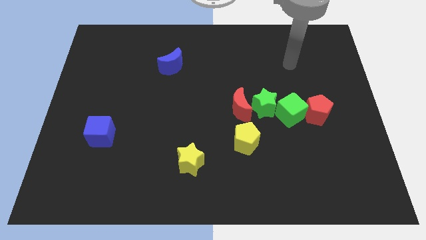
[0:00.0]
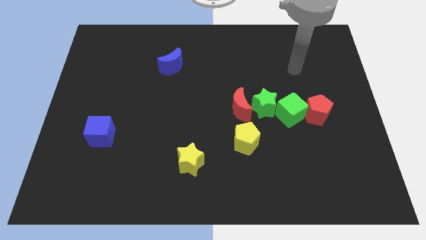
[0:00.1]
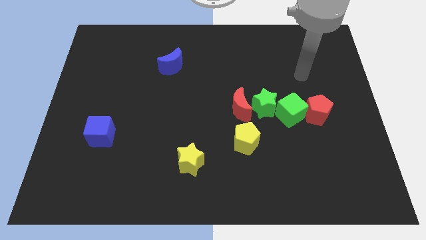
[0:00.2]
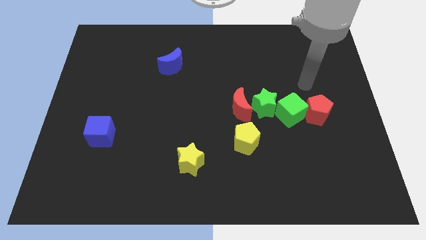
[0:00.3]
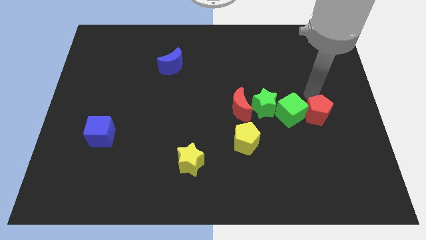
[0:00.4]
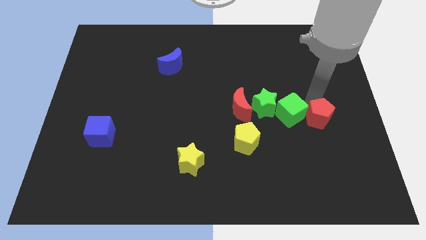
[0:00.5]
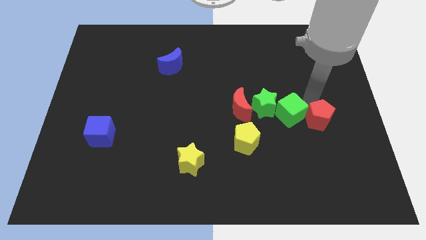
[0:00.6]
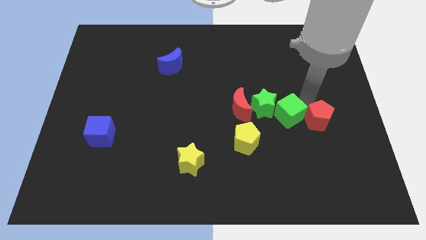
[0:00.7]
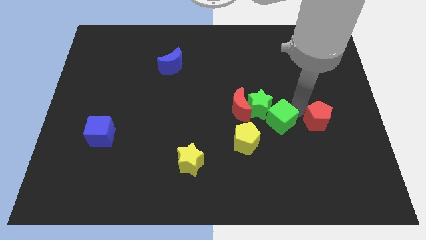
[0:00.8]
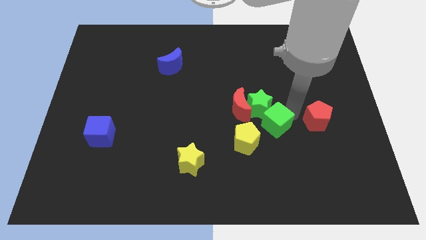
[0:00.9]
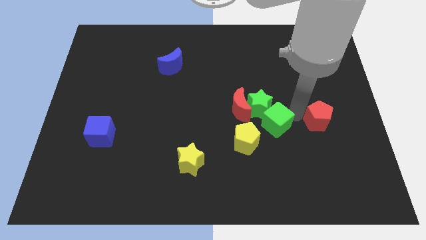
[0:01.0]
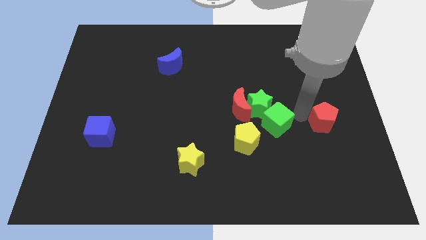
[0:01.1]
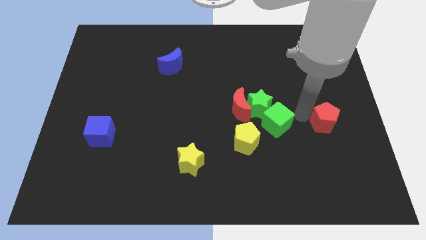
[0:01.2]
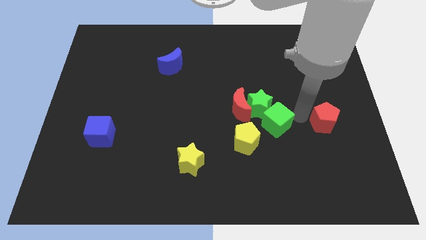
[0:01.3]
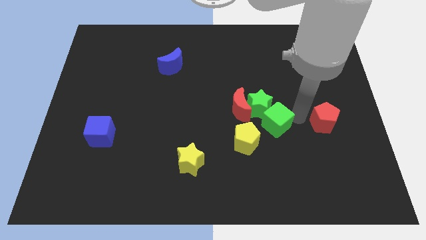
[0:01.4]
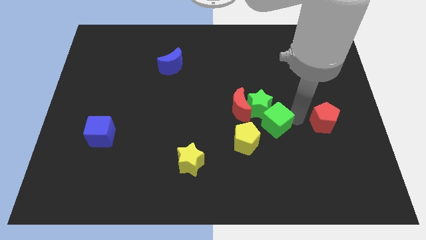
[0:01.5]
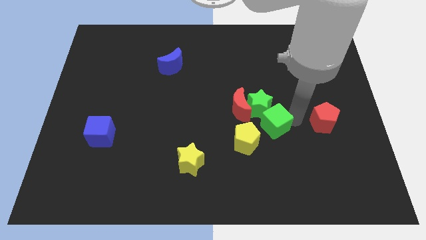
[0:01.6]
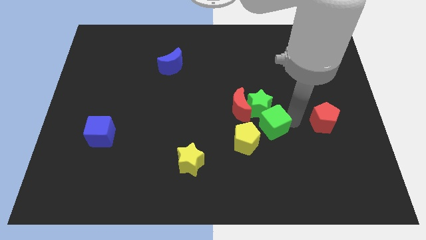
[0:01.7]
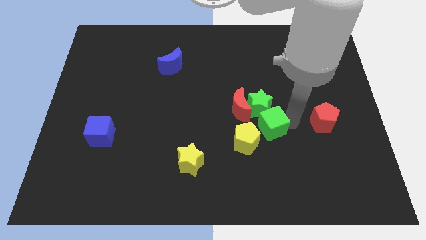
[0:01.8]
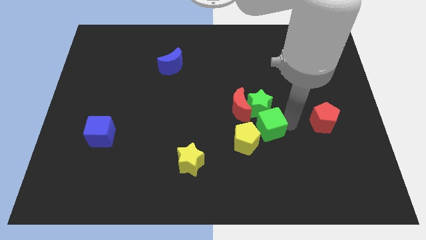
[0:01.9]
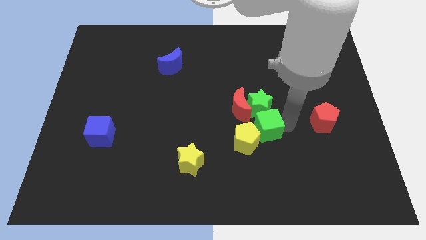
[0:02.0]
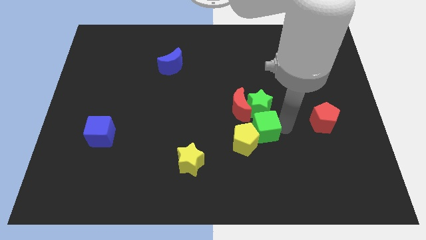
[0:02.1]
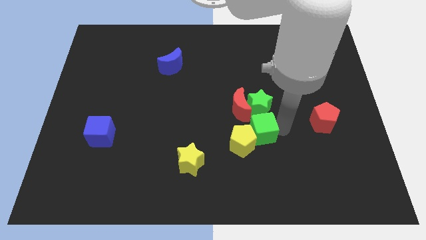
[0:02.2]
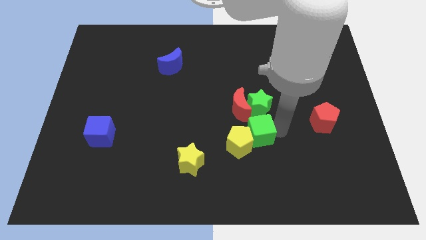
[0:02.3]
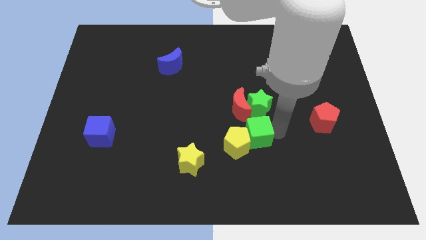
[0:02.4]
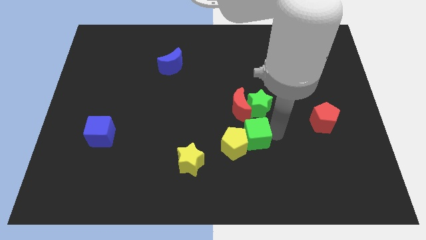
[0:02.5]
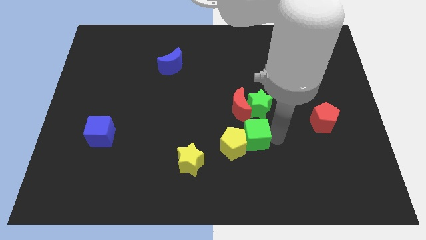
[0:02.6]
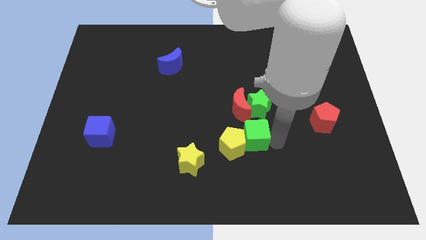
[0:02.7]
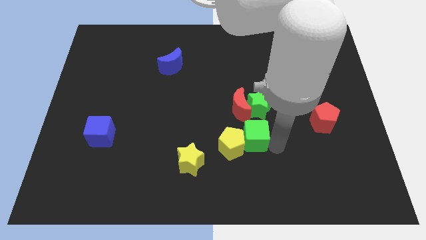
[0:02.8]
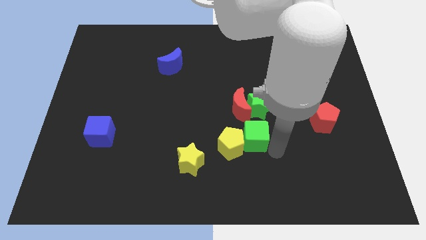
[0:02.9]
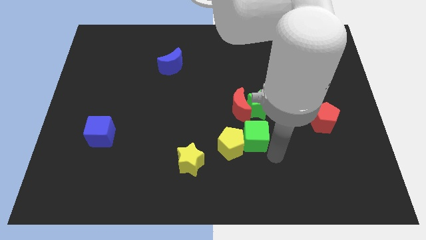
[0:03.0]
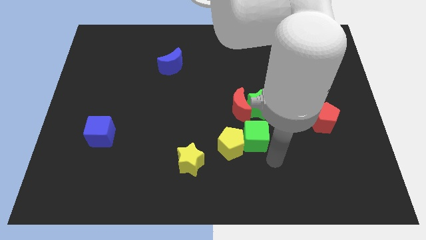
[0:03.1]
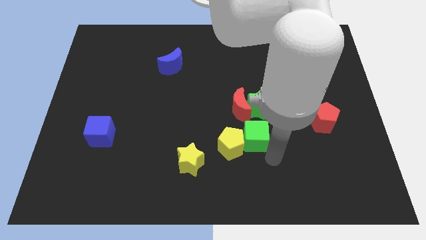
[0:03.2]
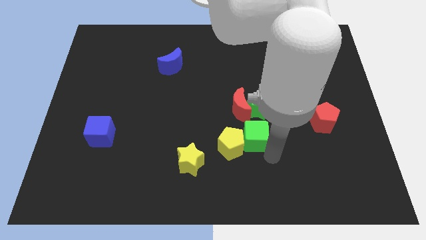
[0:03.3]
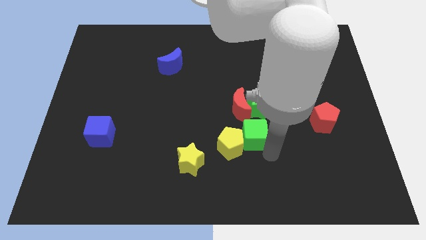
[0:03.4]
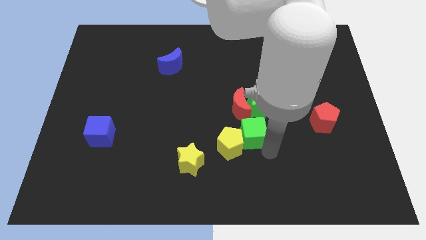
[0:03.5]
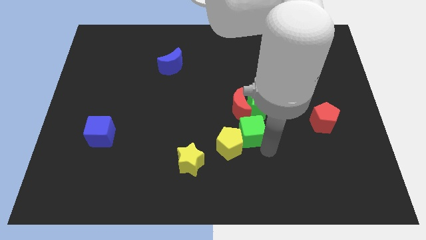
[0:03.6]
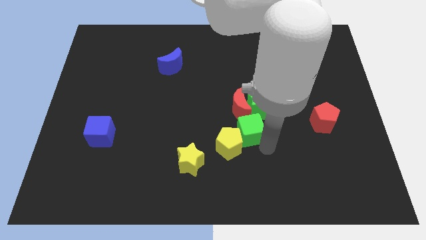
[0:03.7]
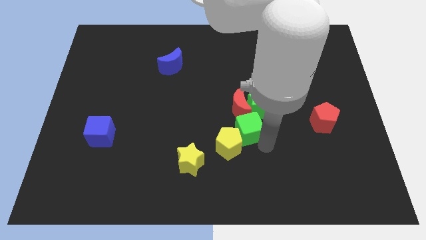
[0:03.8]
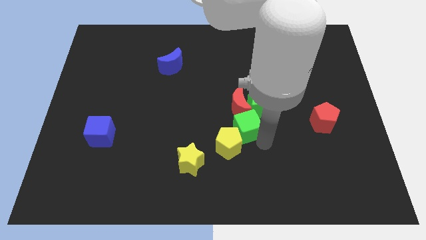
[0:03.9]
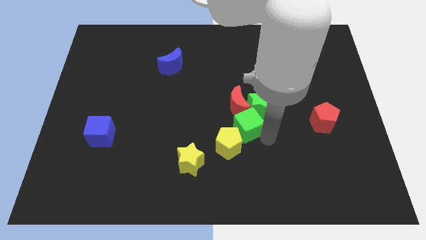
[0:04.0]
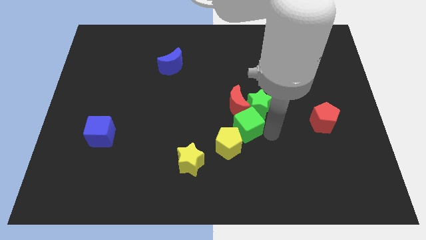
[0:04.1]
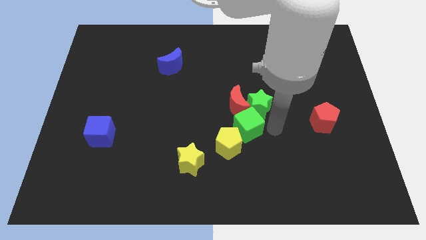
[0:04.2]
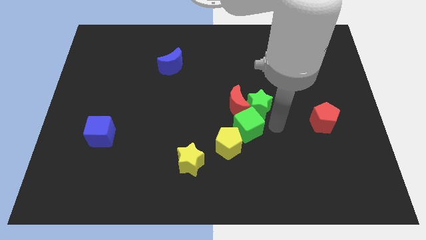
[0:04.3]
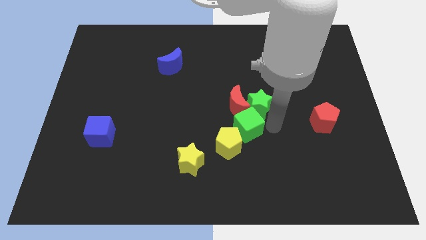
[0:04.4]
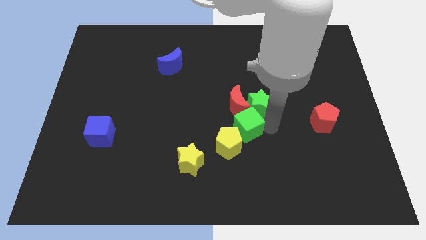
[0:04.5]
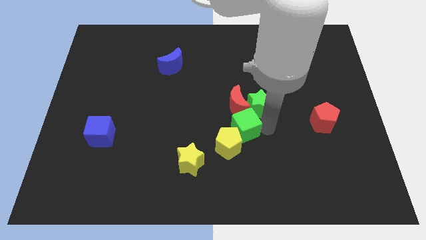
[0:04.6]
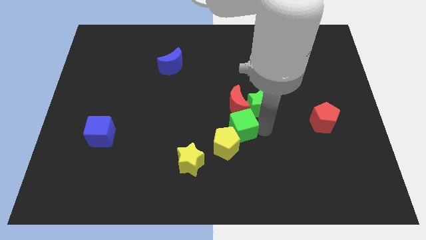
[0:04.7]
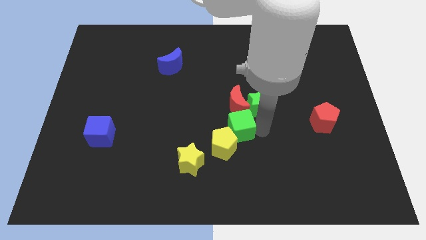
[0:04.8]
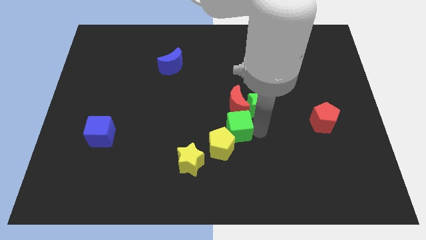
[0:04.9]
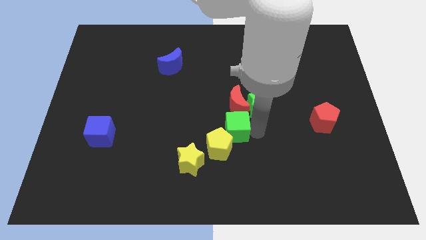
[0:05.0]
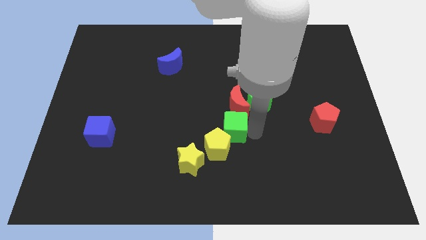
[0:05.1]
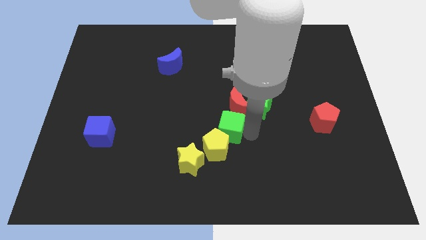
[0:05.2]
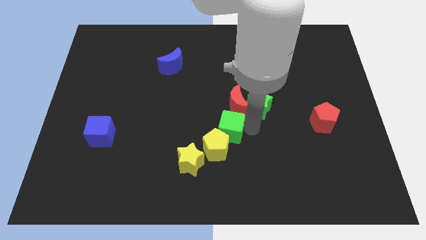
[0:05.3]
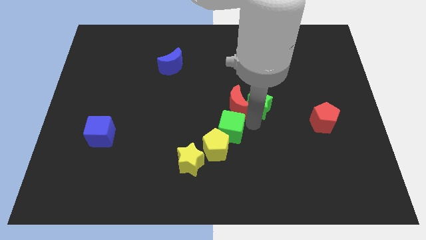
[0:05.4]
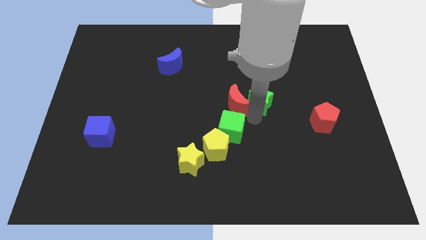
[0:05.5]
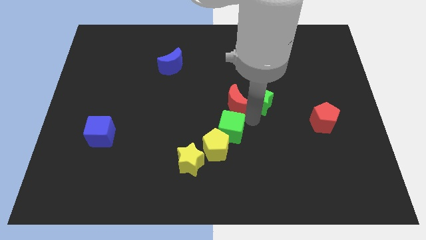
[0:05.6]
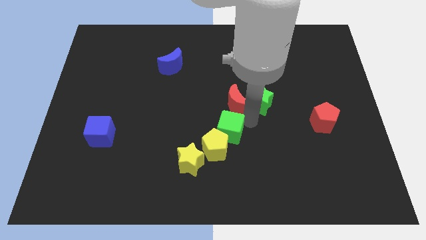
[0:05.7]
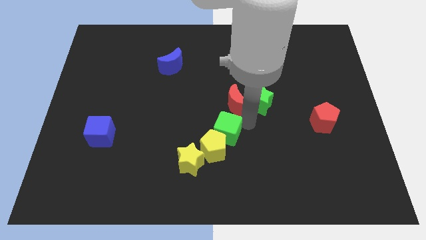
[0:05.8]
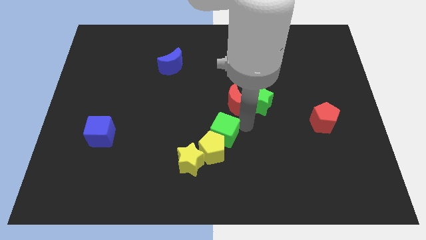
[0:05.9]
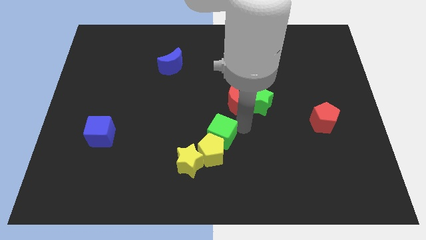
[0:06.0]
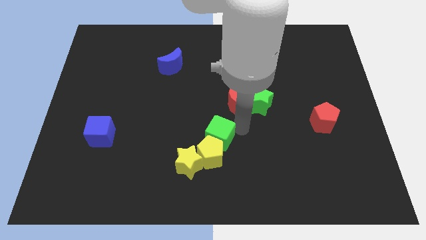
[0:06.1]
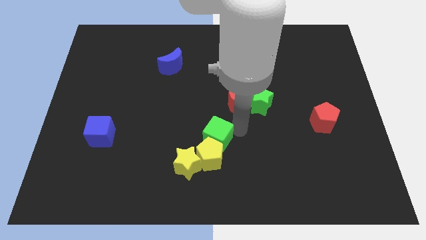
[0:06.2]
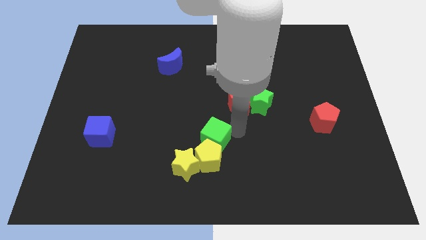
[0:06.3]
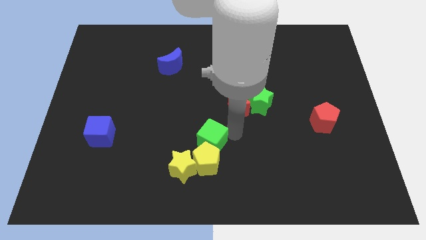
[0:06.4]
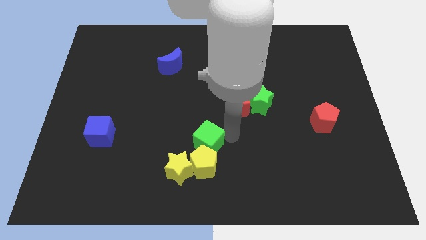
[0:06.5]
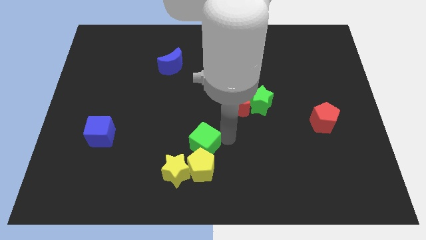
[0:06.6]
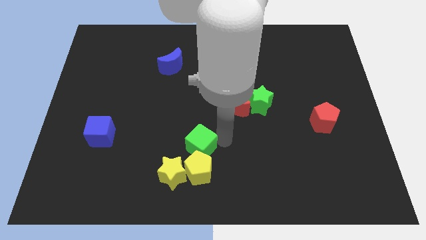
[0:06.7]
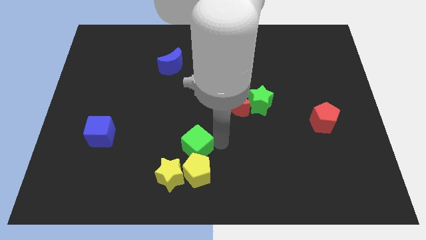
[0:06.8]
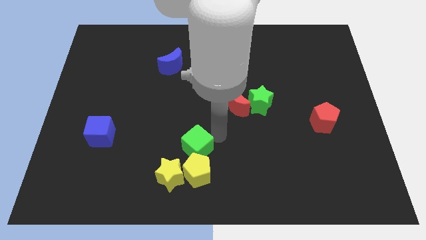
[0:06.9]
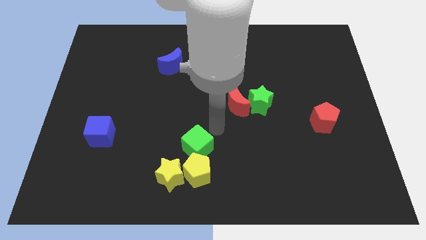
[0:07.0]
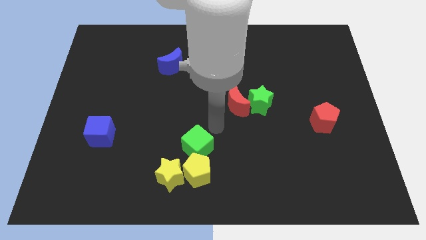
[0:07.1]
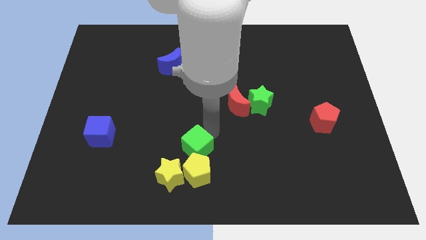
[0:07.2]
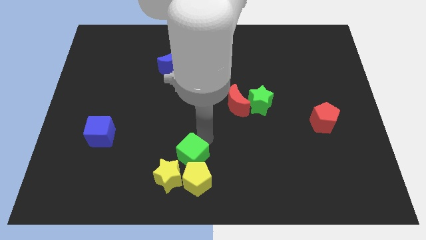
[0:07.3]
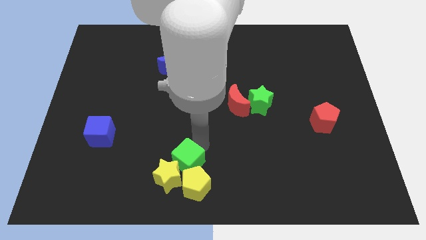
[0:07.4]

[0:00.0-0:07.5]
push the green cube towards the yellow star
